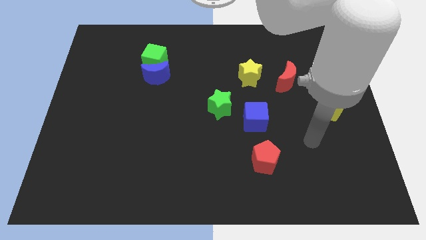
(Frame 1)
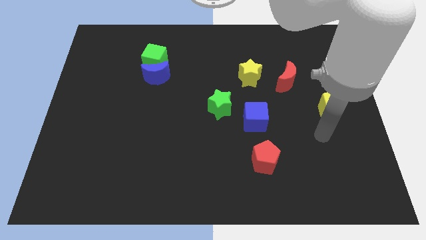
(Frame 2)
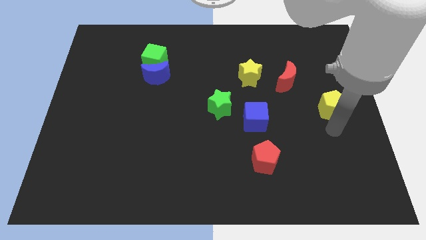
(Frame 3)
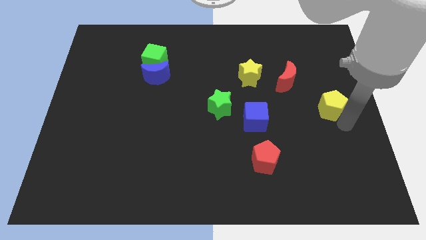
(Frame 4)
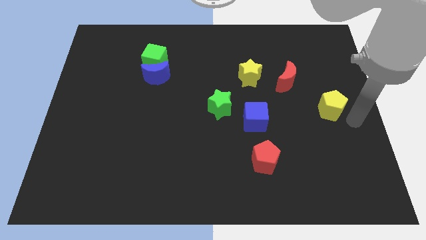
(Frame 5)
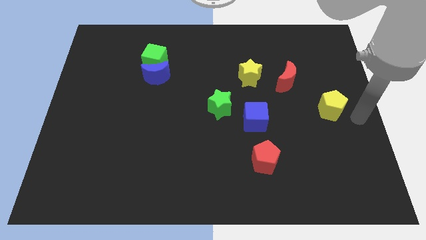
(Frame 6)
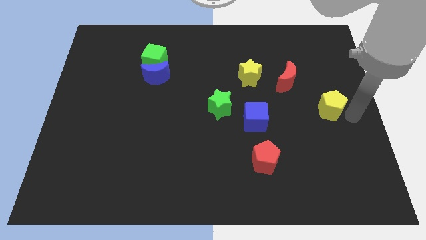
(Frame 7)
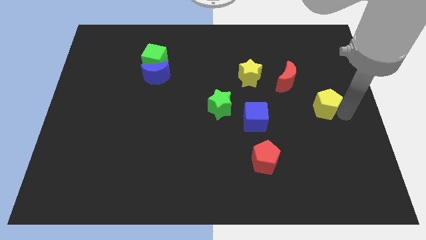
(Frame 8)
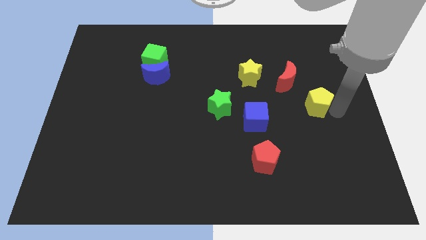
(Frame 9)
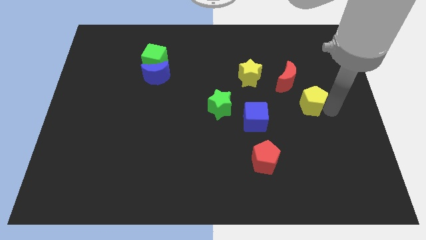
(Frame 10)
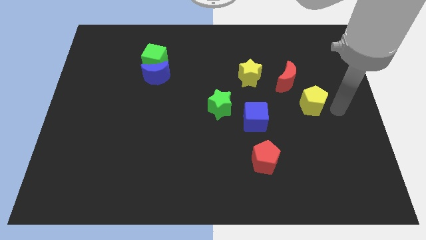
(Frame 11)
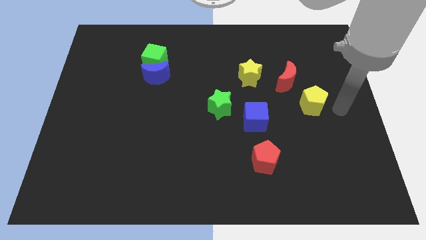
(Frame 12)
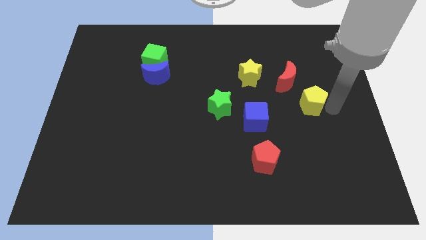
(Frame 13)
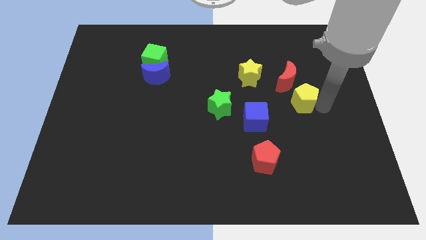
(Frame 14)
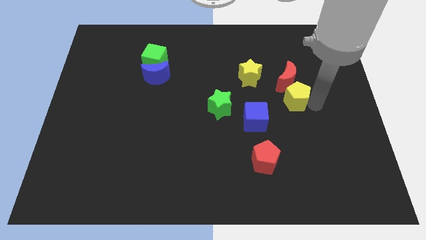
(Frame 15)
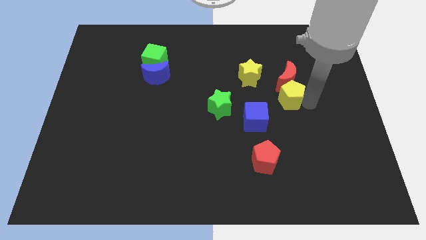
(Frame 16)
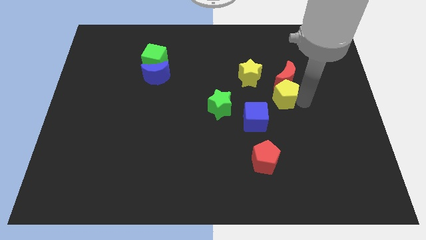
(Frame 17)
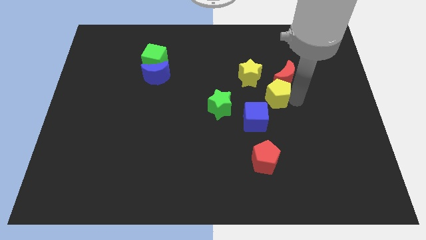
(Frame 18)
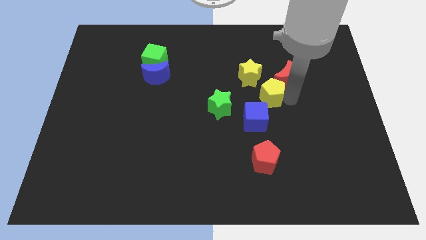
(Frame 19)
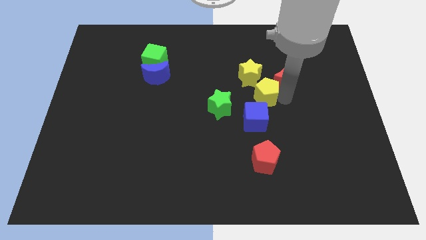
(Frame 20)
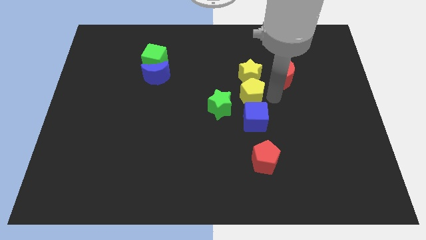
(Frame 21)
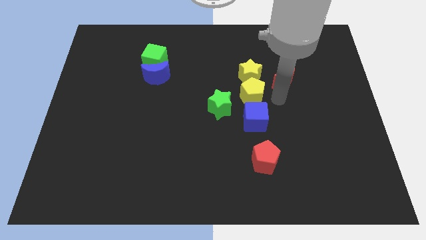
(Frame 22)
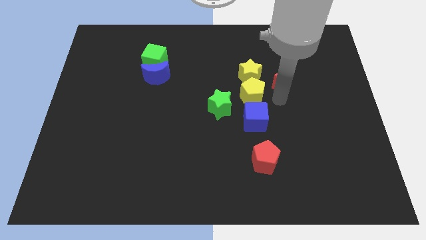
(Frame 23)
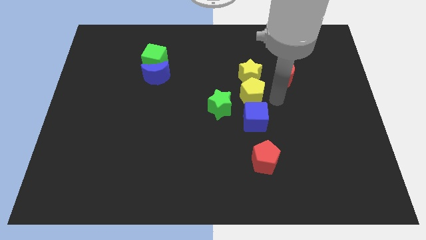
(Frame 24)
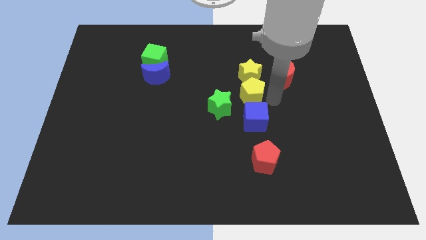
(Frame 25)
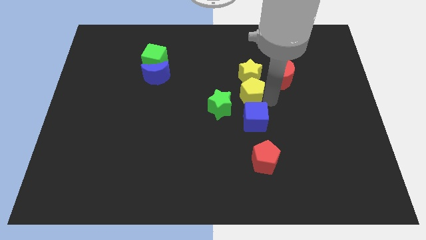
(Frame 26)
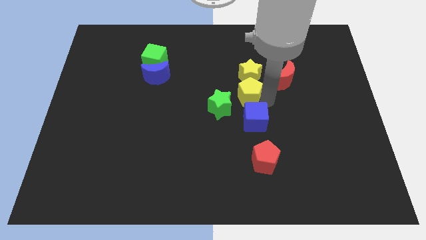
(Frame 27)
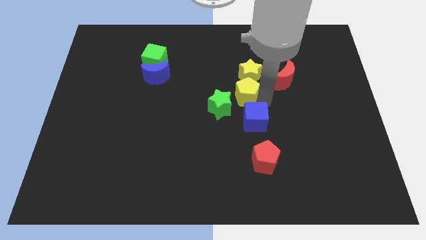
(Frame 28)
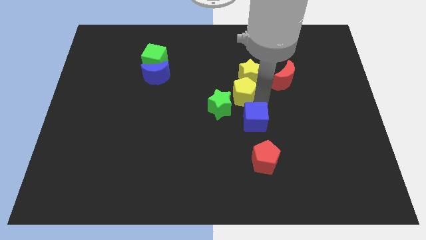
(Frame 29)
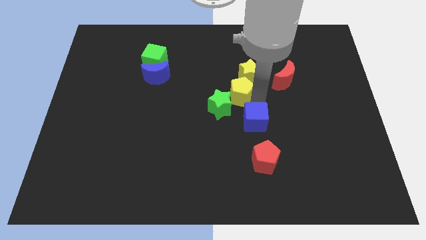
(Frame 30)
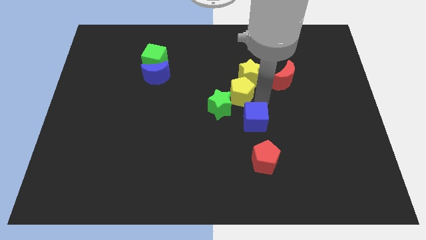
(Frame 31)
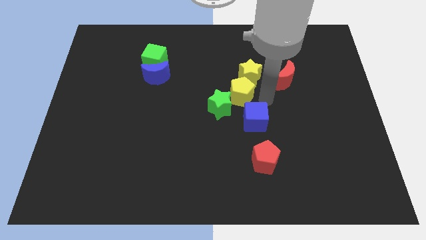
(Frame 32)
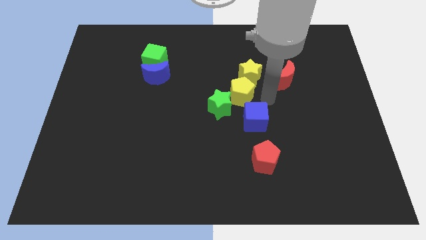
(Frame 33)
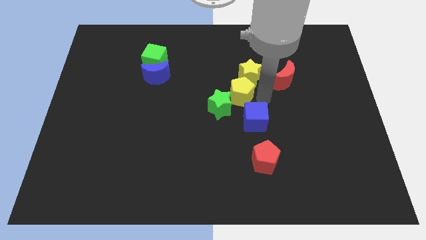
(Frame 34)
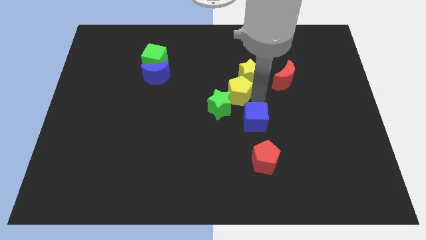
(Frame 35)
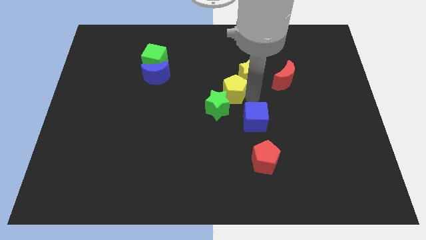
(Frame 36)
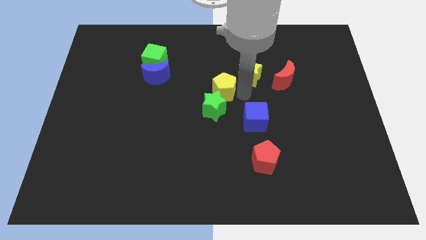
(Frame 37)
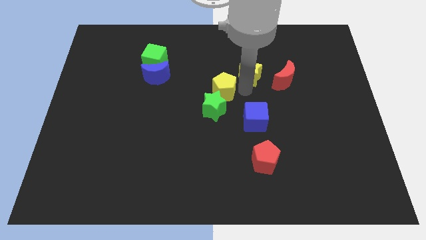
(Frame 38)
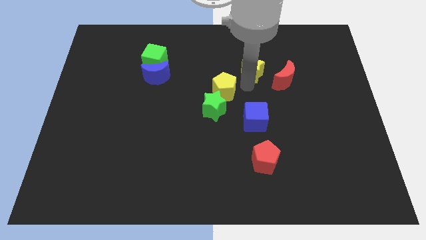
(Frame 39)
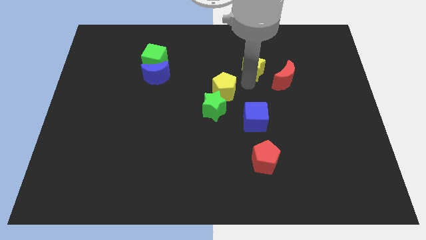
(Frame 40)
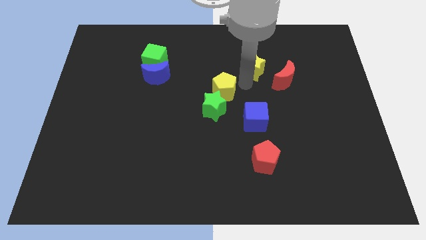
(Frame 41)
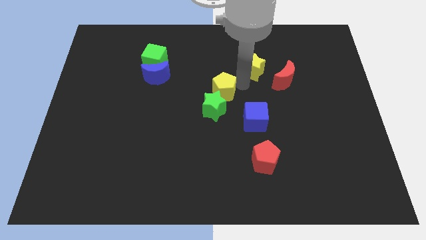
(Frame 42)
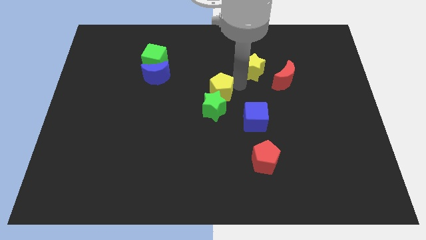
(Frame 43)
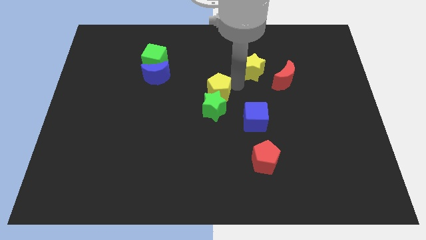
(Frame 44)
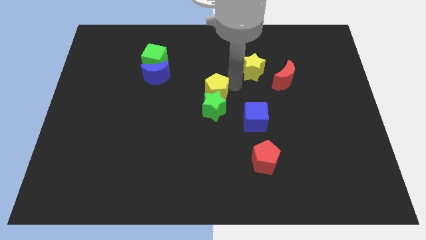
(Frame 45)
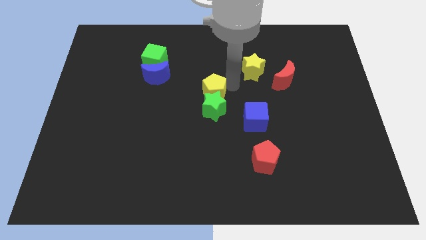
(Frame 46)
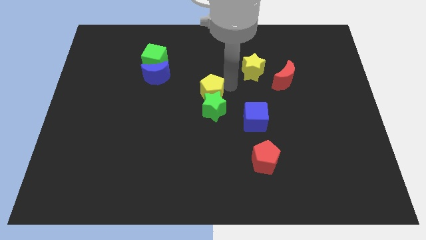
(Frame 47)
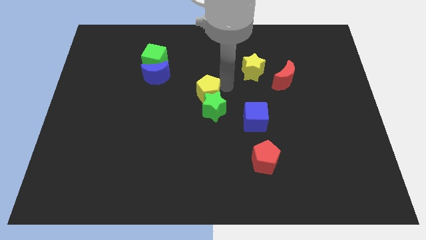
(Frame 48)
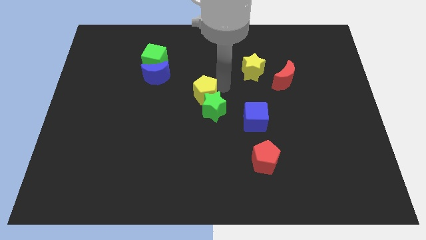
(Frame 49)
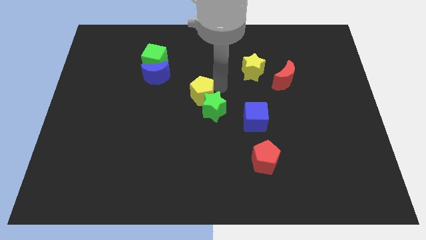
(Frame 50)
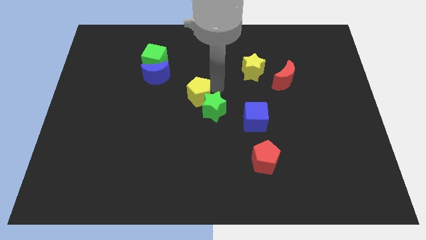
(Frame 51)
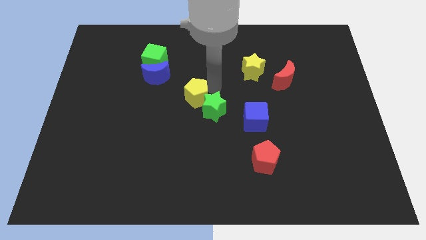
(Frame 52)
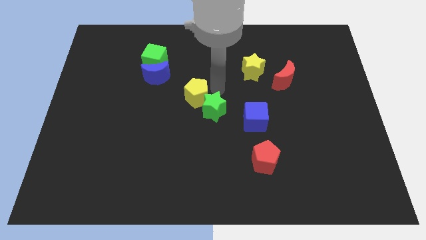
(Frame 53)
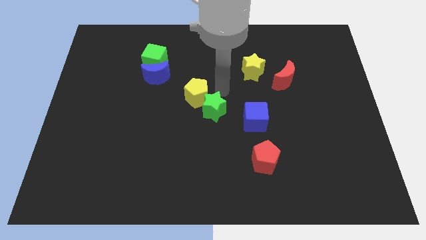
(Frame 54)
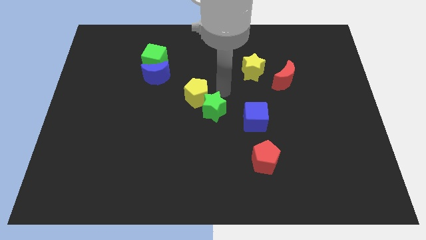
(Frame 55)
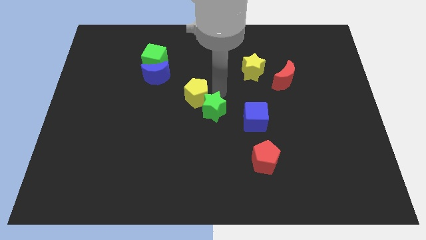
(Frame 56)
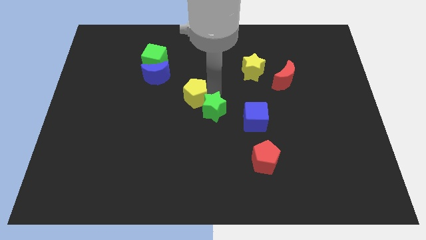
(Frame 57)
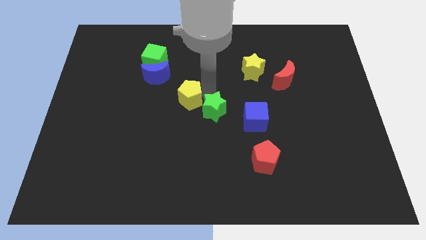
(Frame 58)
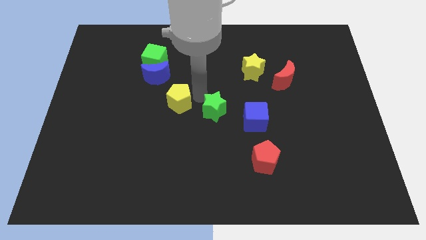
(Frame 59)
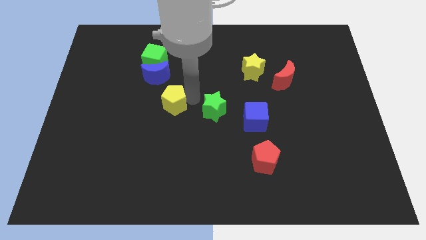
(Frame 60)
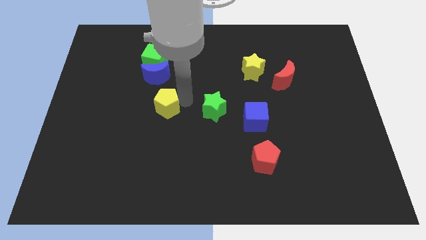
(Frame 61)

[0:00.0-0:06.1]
move the yellow pentagon to the bottom side of the blue moon

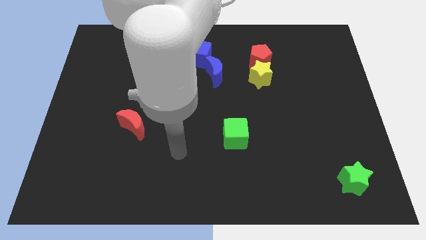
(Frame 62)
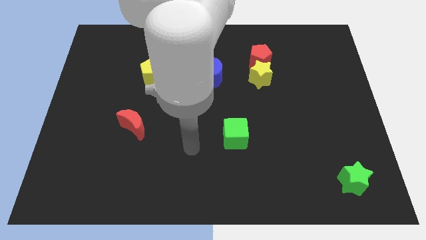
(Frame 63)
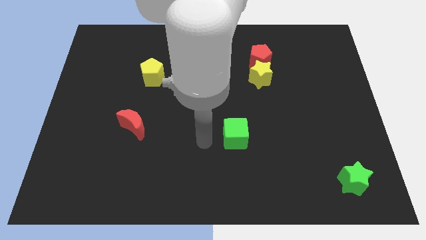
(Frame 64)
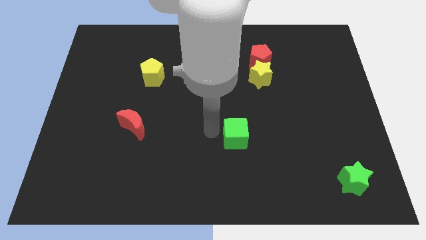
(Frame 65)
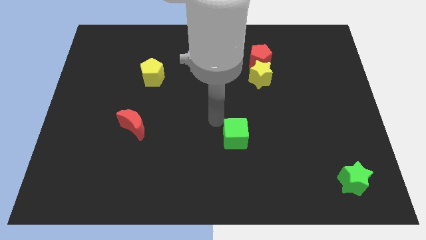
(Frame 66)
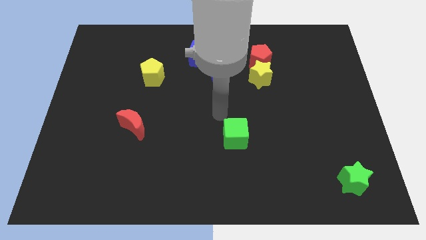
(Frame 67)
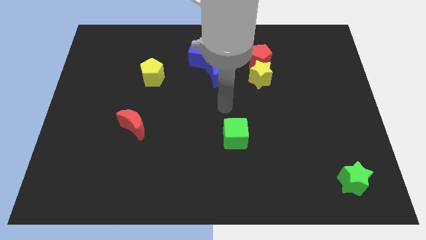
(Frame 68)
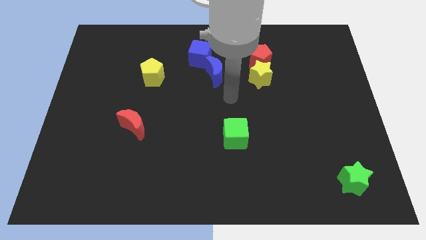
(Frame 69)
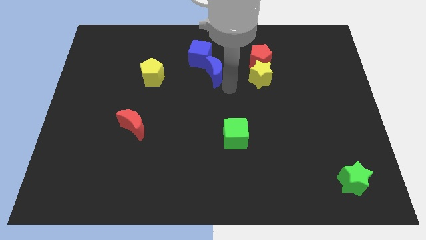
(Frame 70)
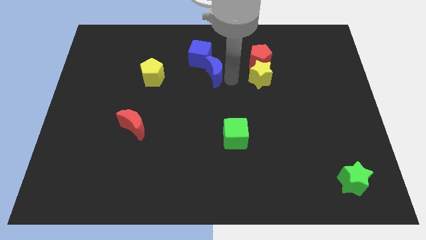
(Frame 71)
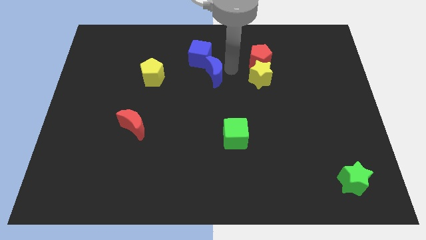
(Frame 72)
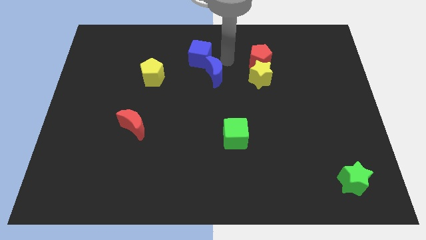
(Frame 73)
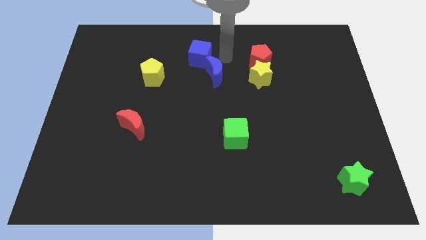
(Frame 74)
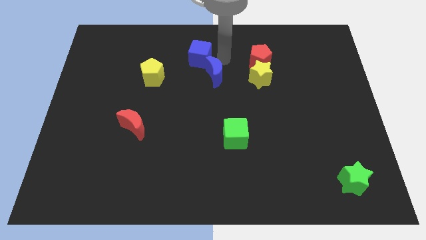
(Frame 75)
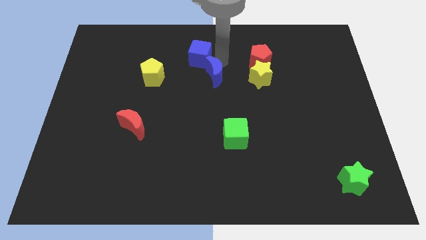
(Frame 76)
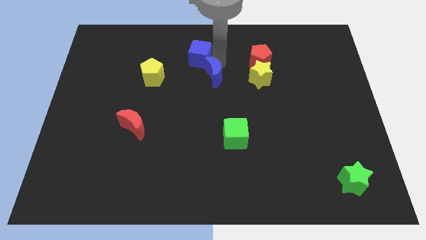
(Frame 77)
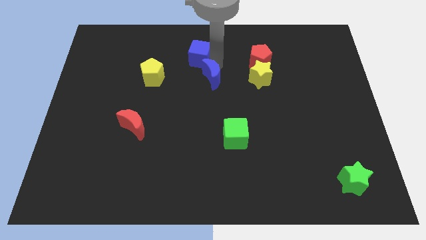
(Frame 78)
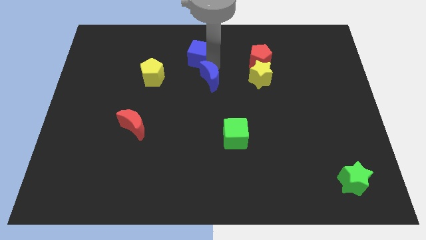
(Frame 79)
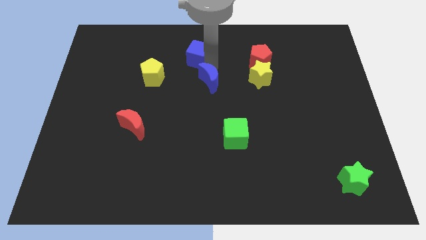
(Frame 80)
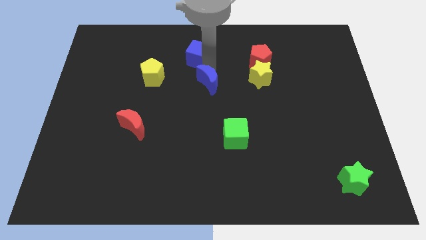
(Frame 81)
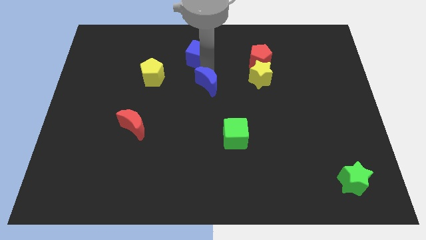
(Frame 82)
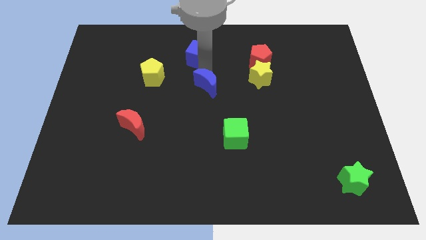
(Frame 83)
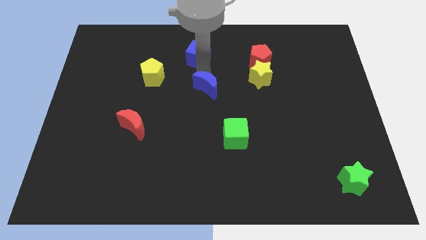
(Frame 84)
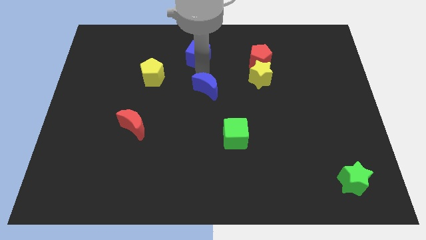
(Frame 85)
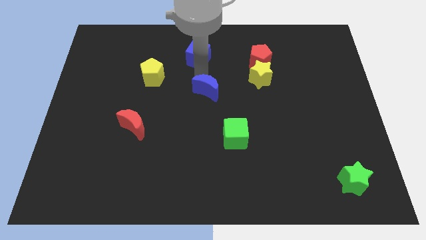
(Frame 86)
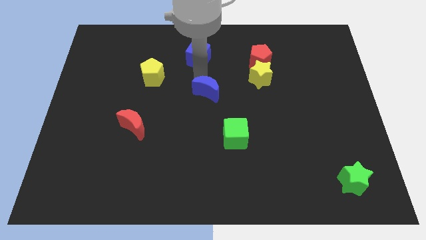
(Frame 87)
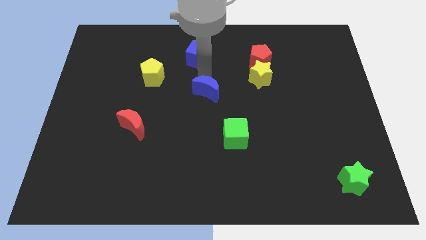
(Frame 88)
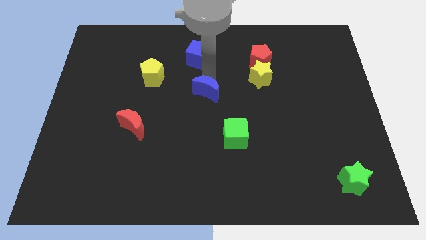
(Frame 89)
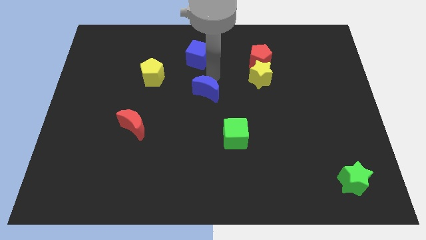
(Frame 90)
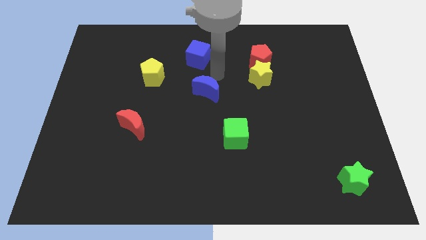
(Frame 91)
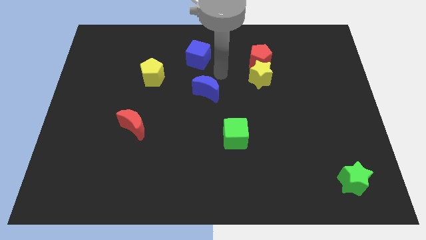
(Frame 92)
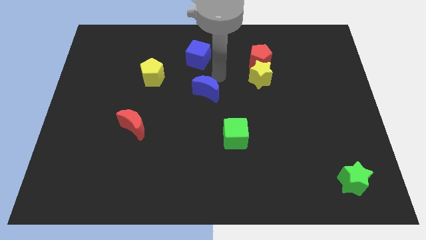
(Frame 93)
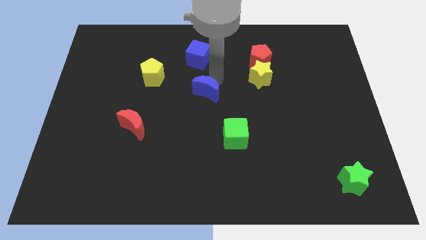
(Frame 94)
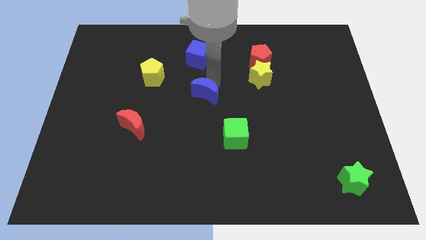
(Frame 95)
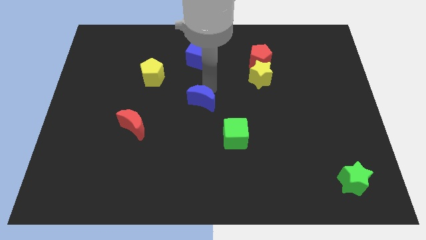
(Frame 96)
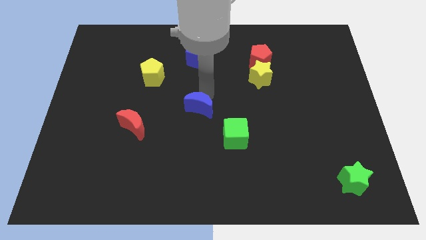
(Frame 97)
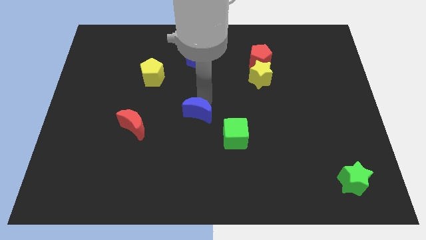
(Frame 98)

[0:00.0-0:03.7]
slide the blue moon right of the red moon
